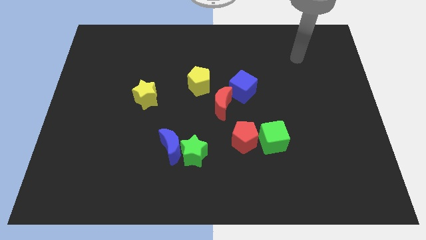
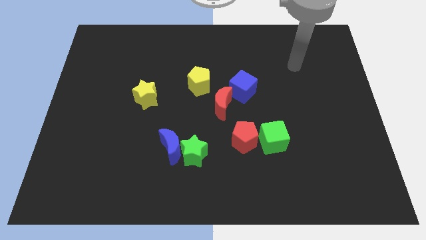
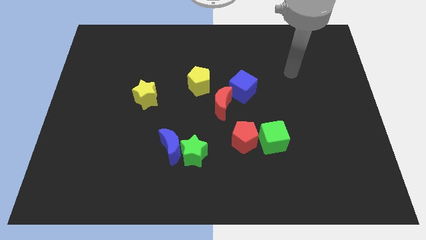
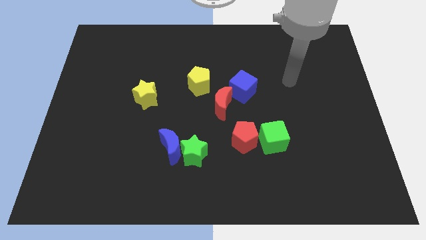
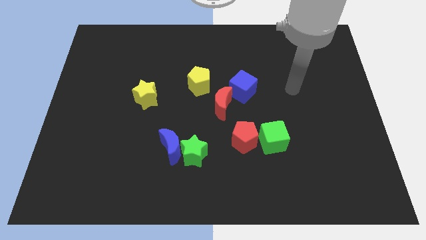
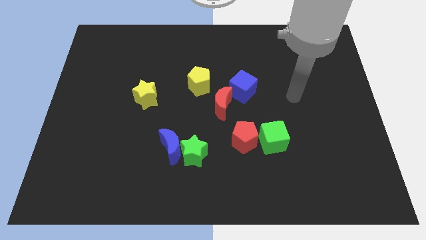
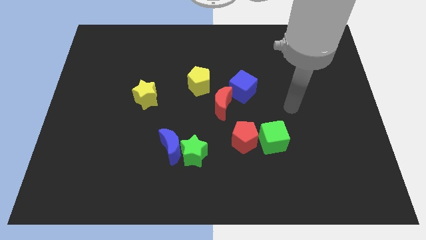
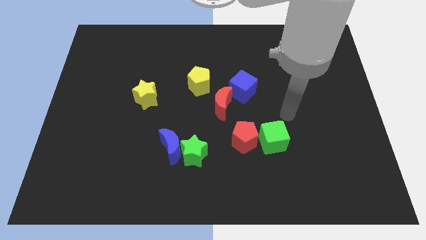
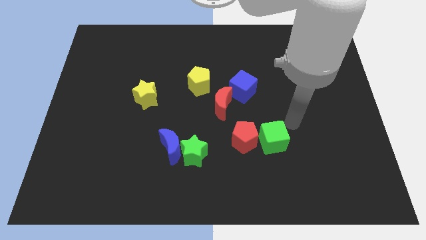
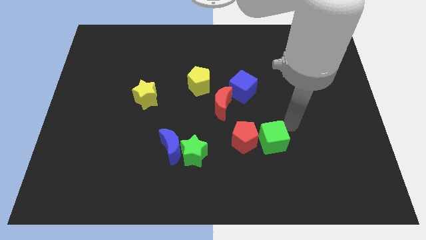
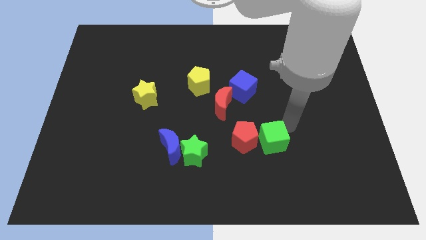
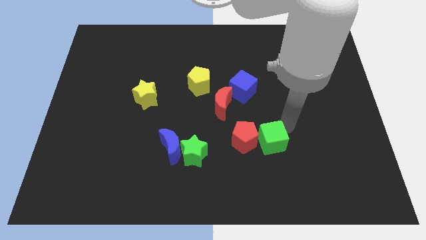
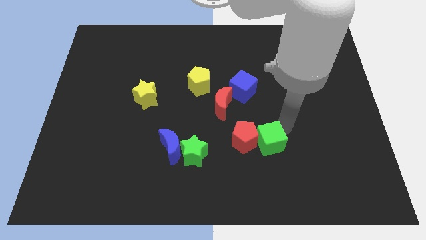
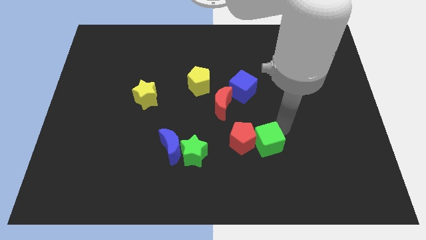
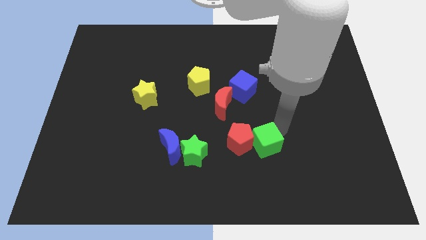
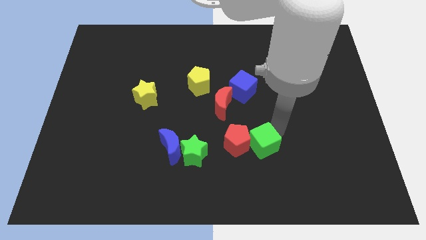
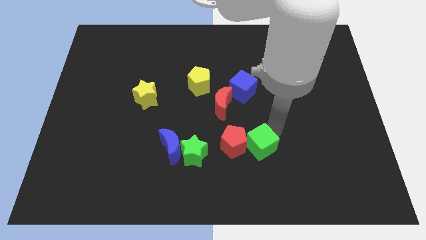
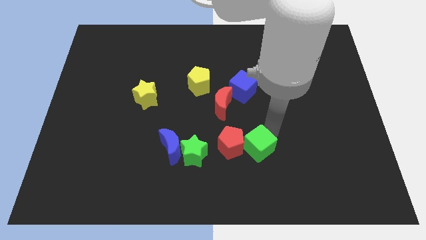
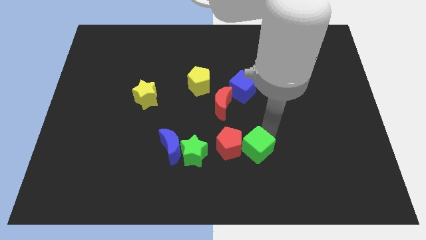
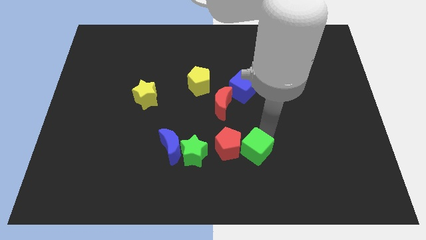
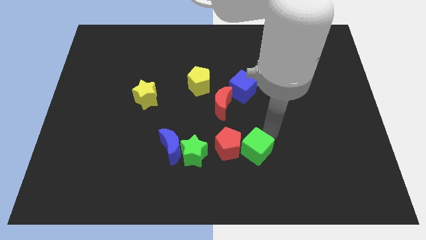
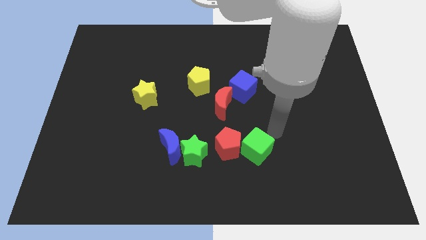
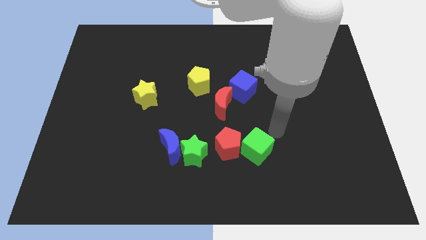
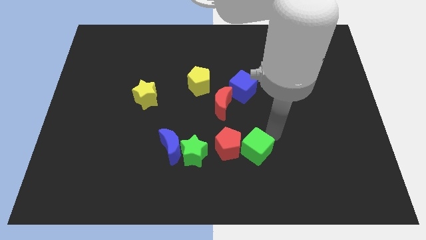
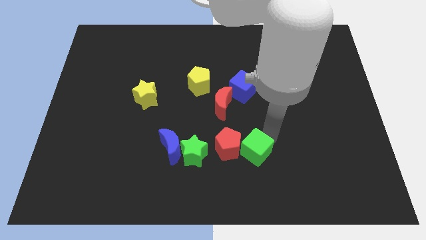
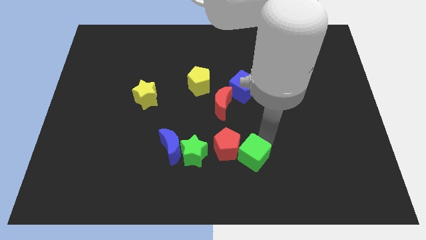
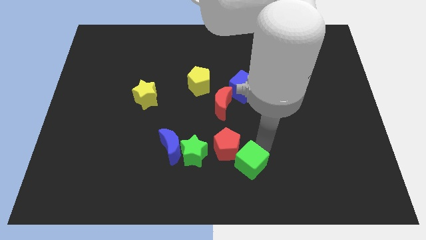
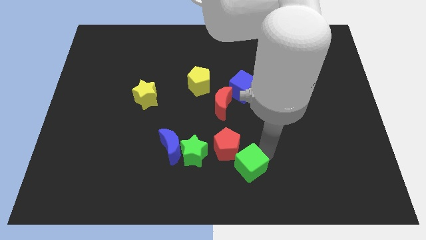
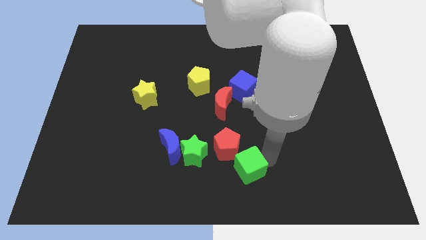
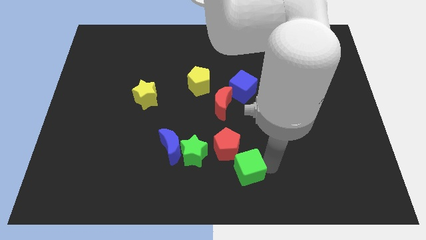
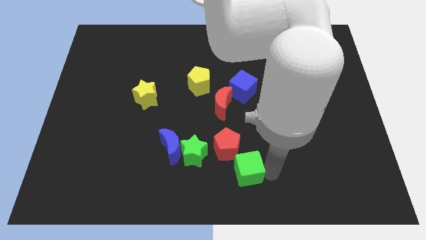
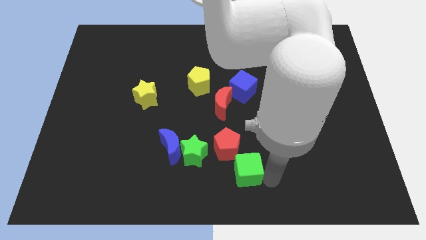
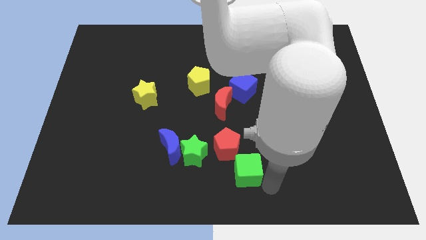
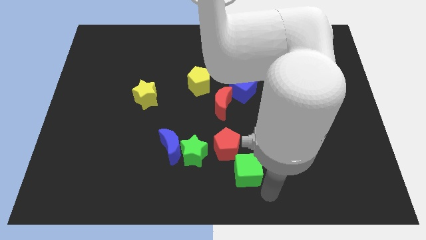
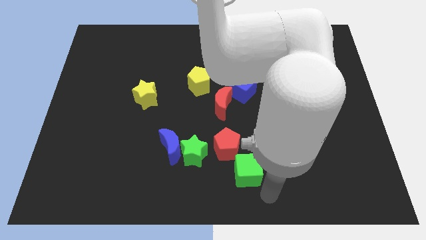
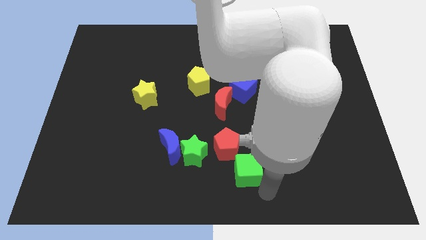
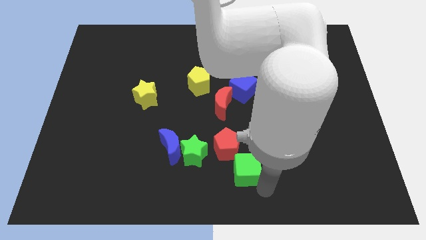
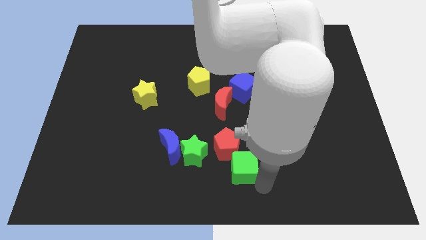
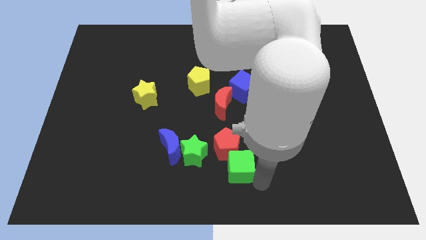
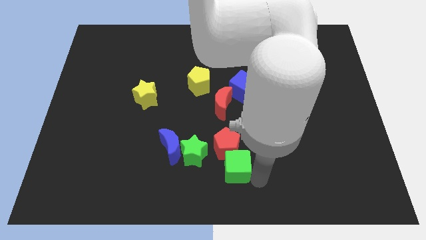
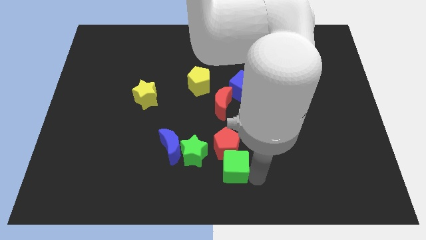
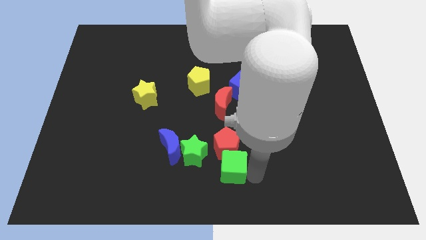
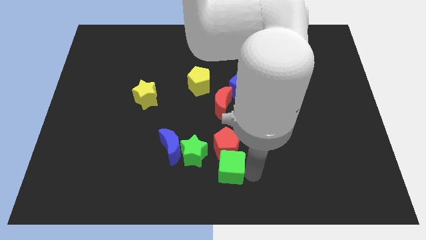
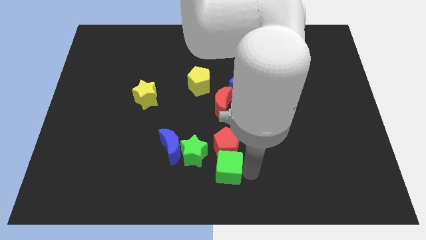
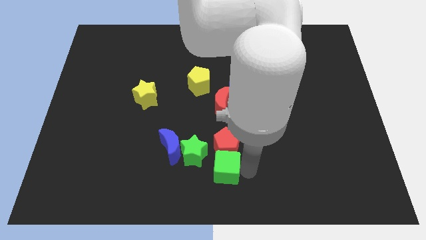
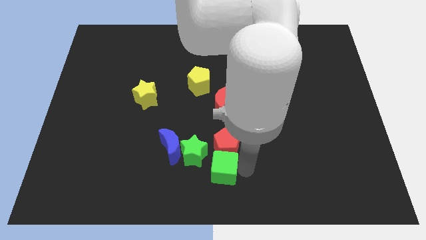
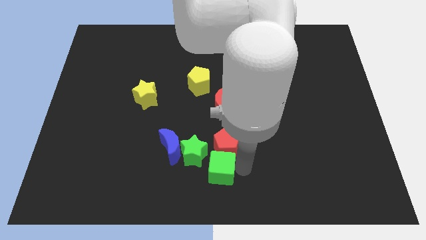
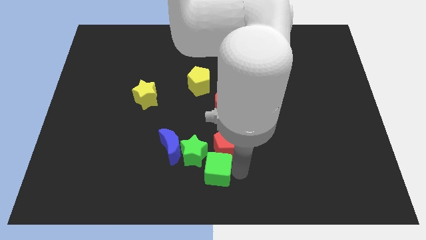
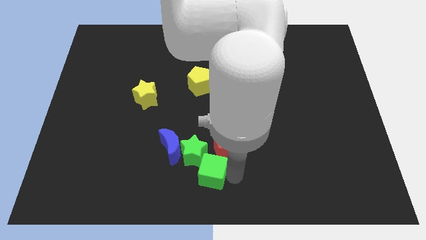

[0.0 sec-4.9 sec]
put the green cube towards the green star

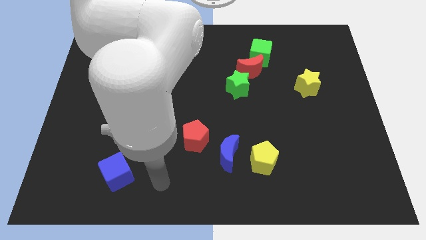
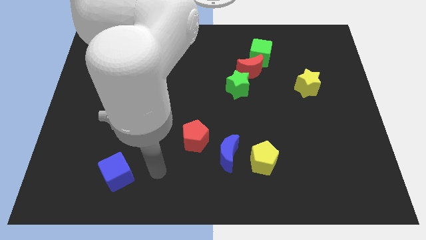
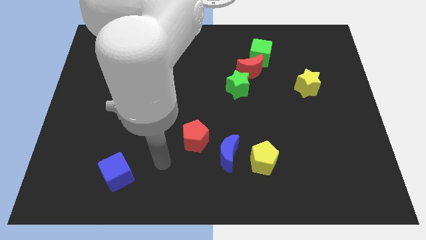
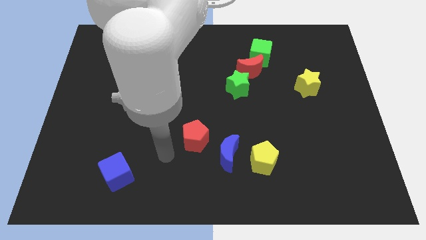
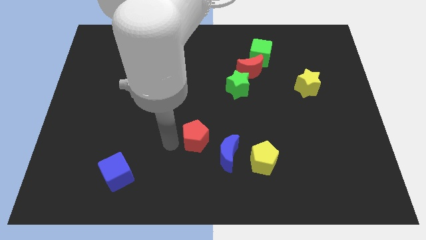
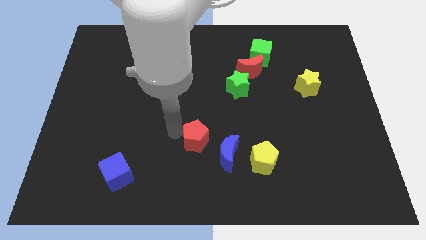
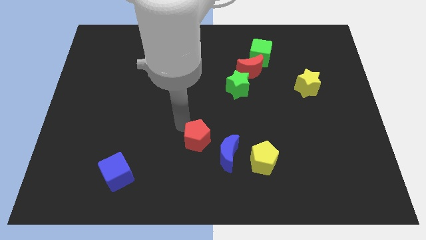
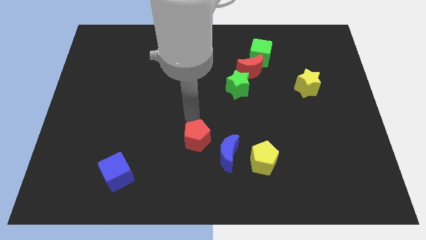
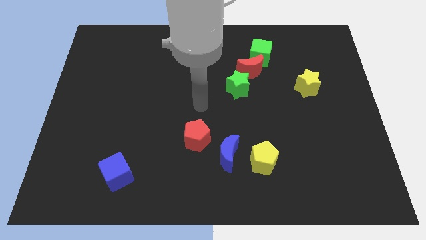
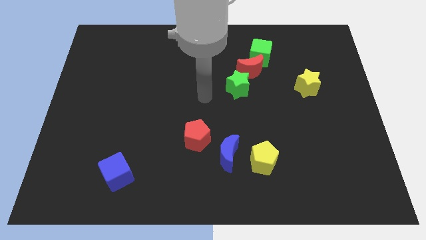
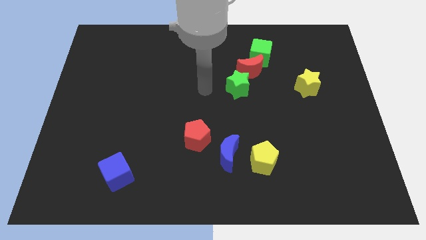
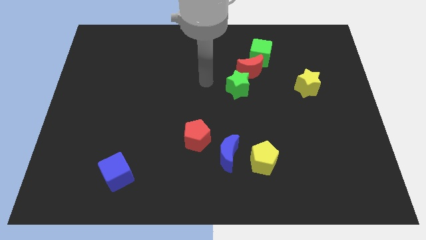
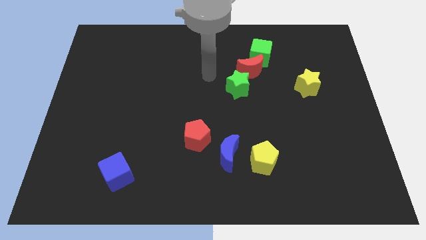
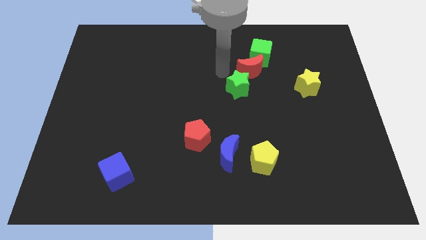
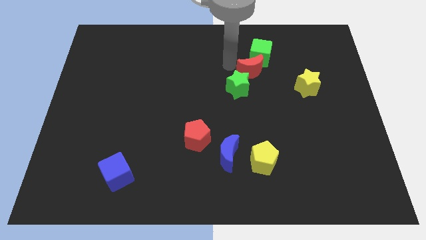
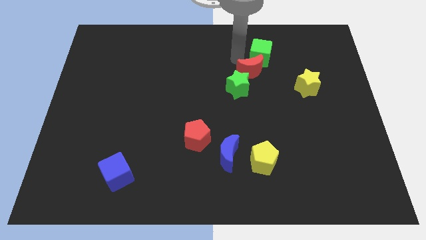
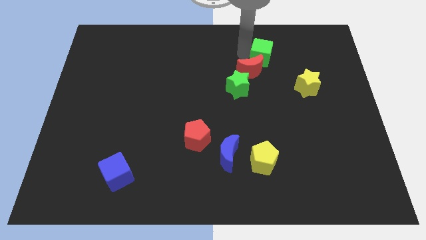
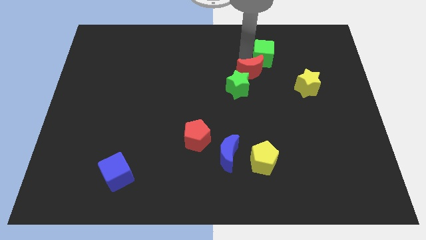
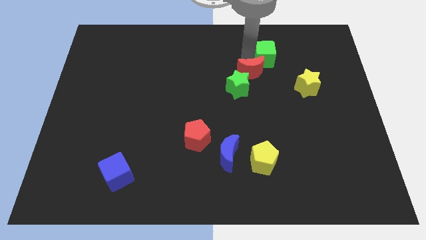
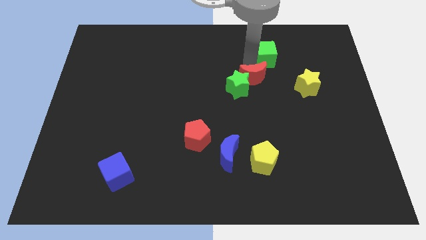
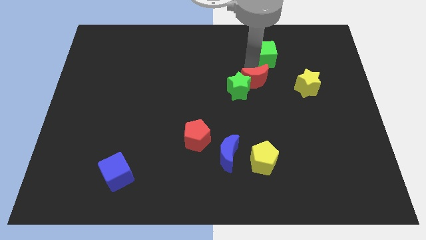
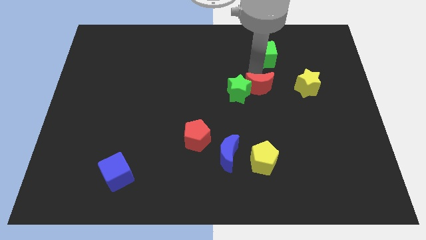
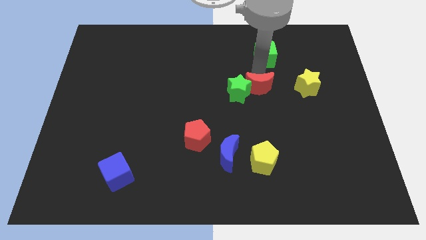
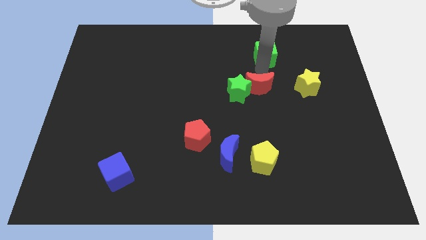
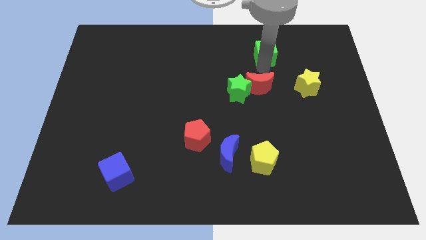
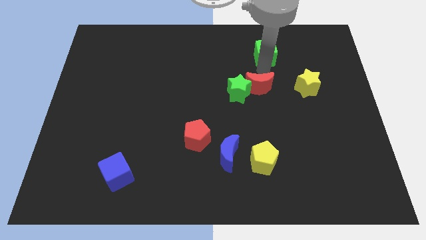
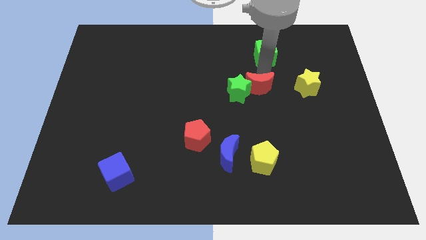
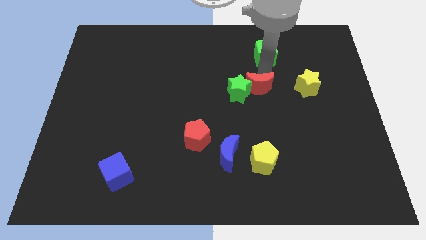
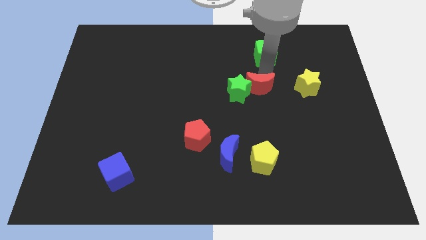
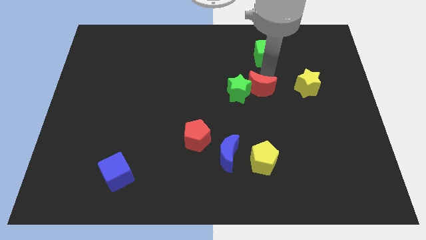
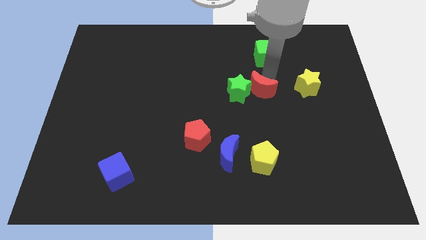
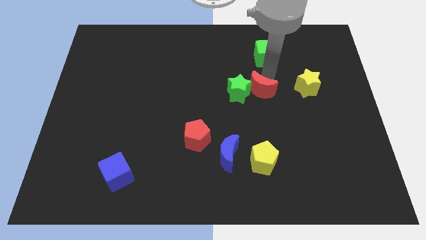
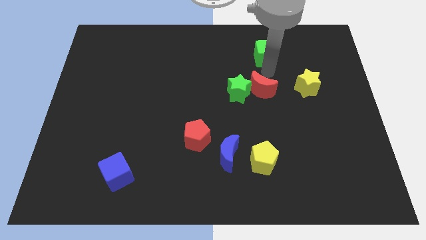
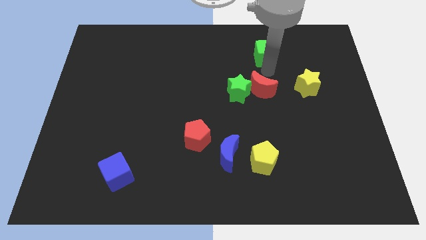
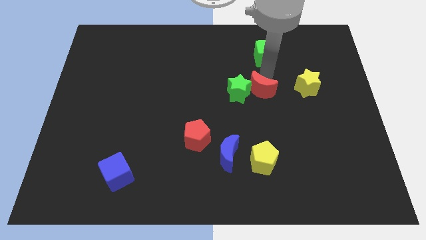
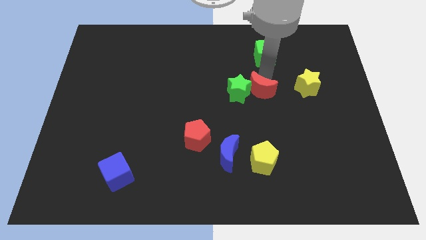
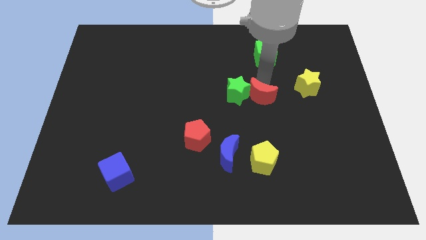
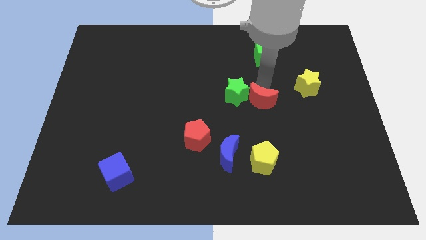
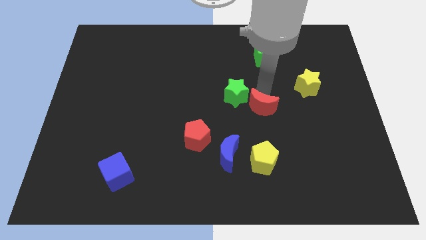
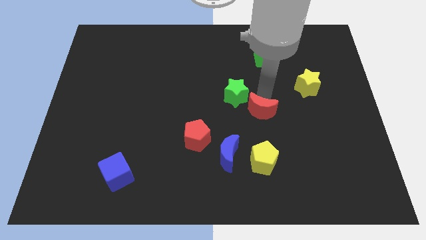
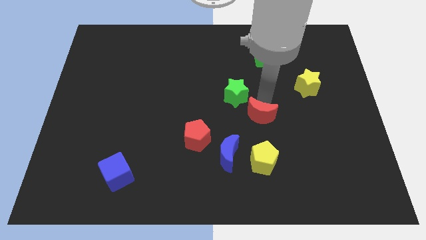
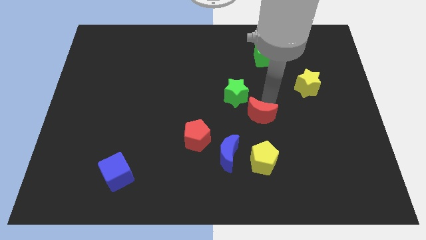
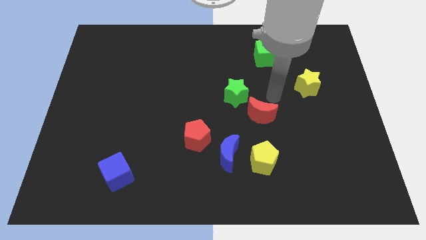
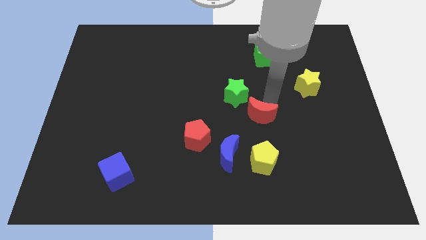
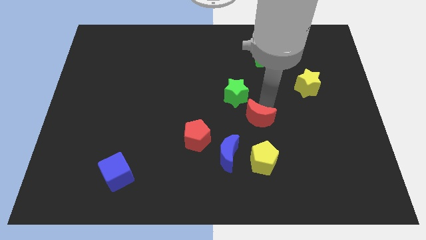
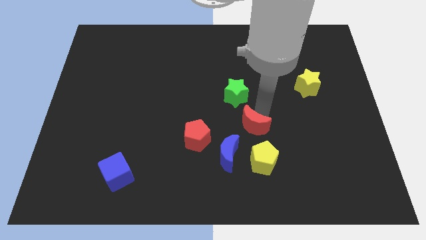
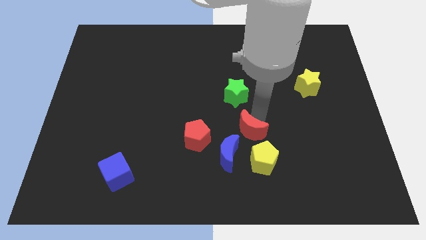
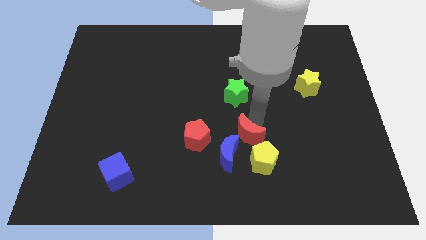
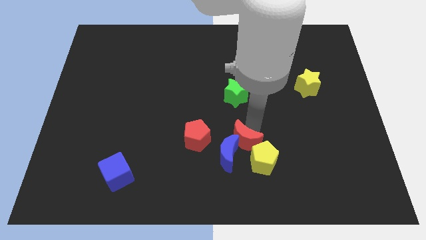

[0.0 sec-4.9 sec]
put the red moon towards the blue moon
